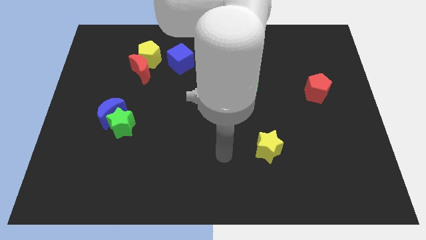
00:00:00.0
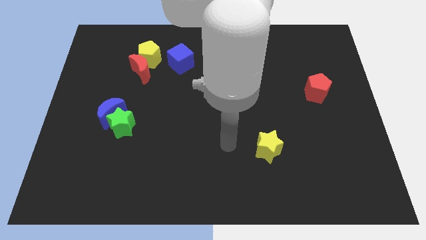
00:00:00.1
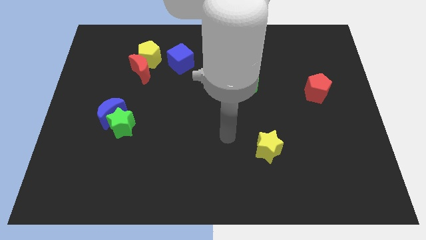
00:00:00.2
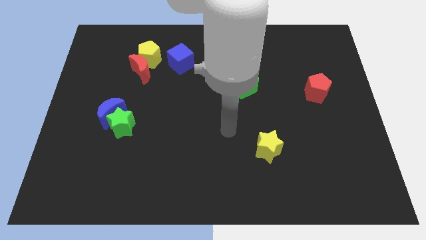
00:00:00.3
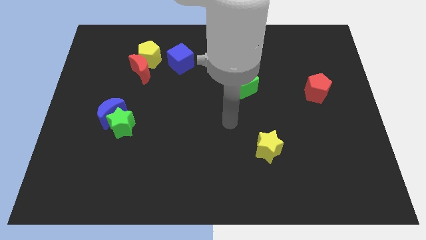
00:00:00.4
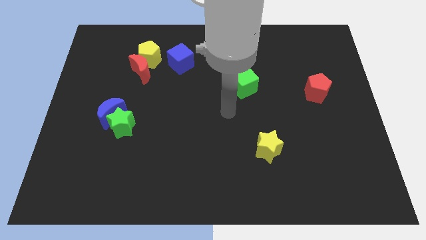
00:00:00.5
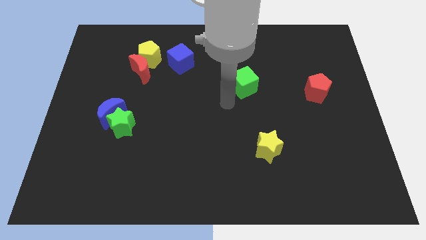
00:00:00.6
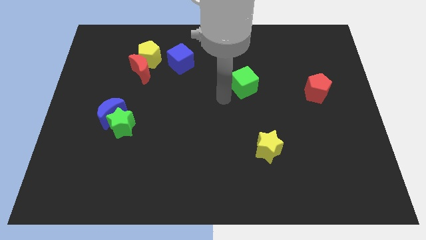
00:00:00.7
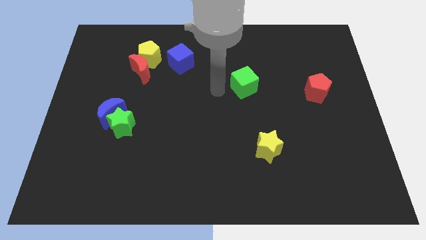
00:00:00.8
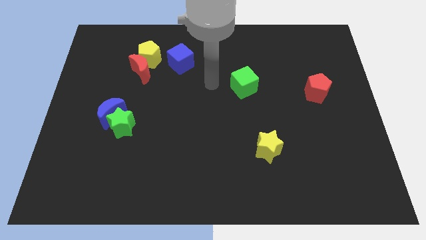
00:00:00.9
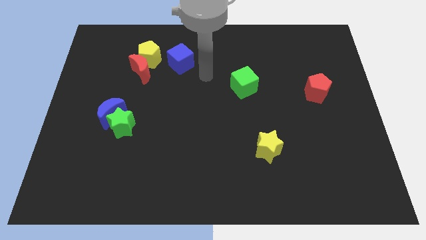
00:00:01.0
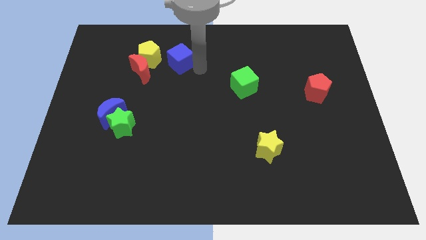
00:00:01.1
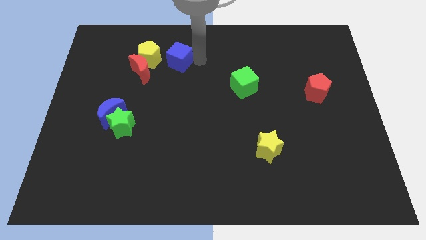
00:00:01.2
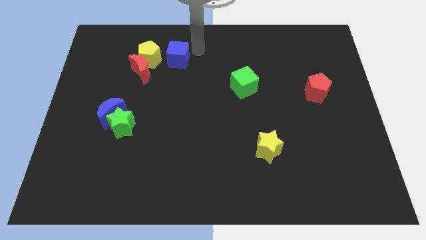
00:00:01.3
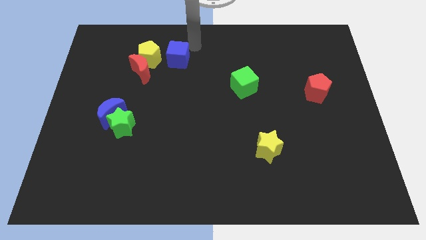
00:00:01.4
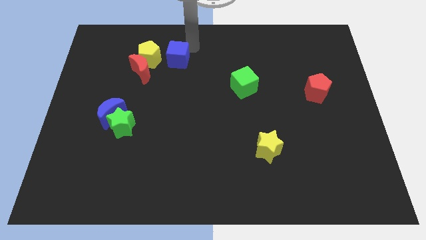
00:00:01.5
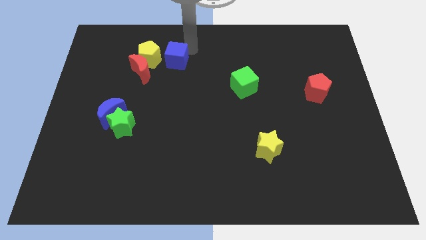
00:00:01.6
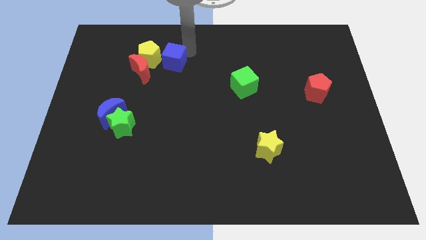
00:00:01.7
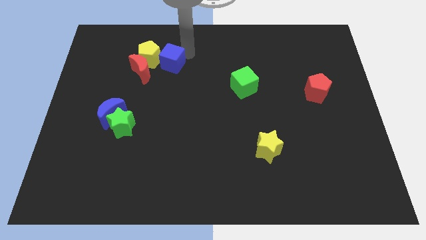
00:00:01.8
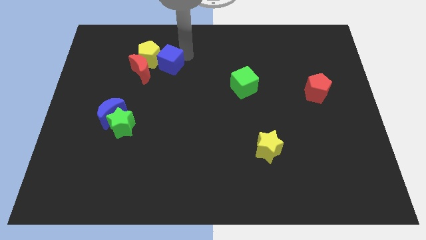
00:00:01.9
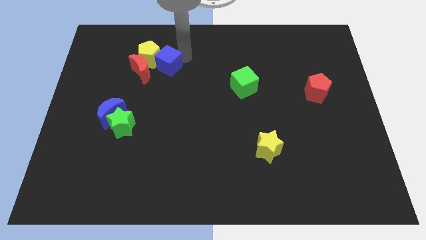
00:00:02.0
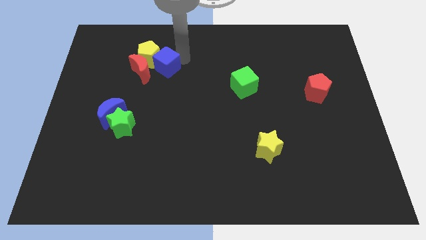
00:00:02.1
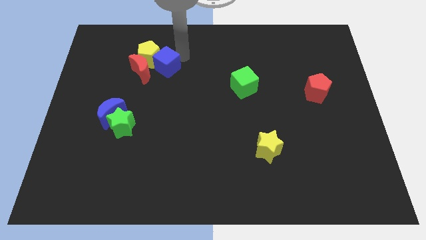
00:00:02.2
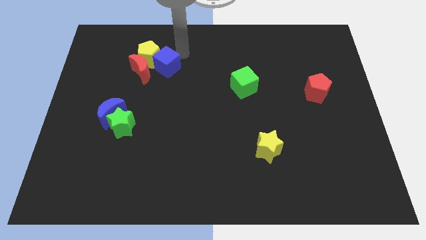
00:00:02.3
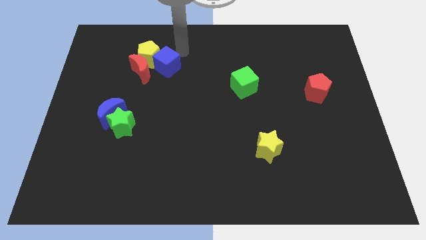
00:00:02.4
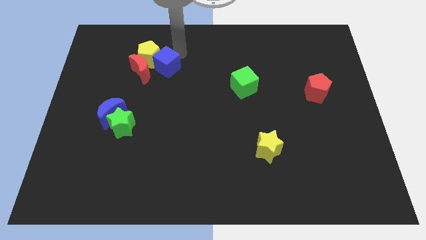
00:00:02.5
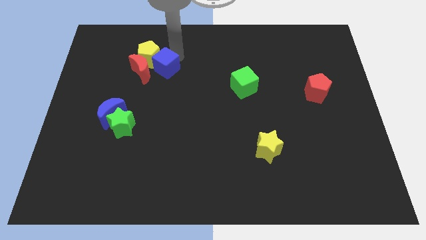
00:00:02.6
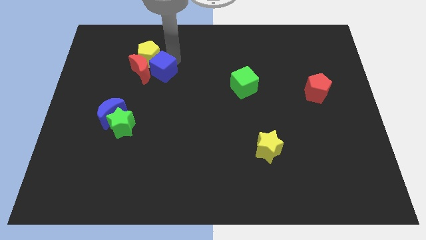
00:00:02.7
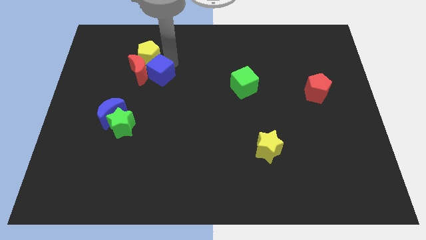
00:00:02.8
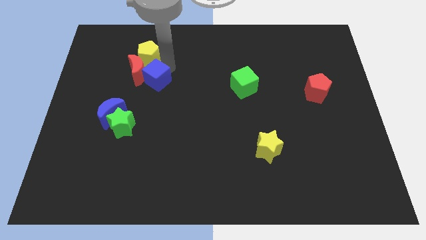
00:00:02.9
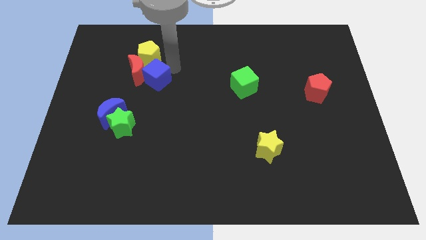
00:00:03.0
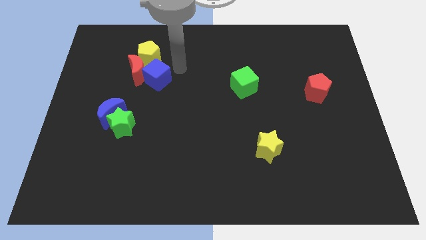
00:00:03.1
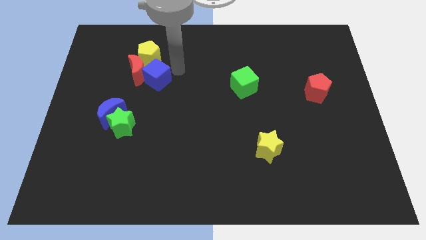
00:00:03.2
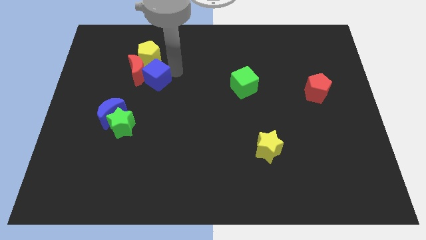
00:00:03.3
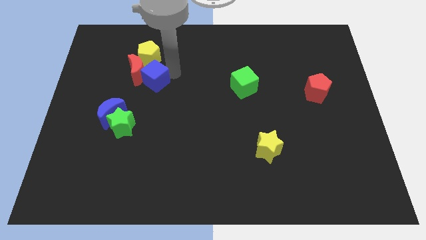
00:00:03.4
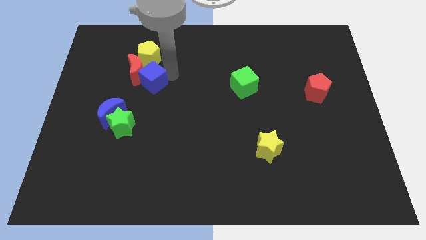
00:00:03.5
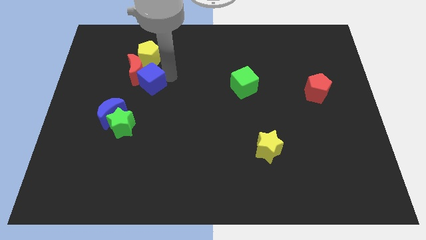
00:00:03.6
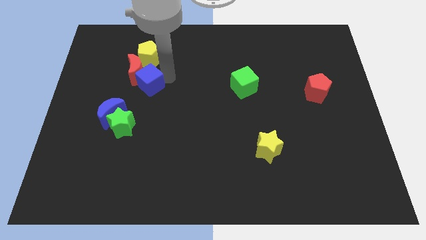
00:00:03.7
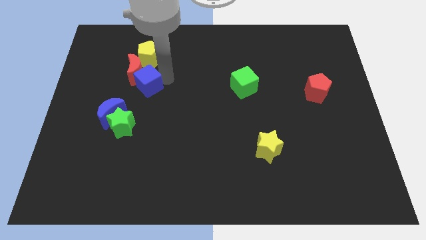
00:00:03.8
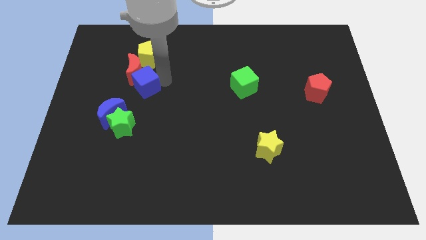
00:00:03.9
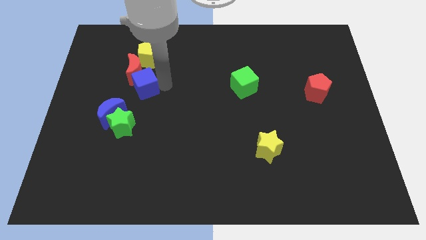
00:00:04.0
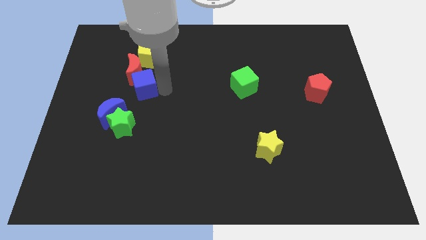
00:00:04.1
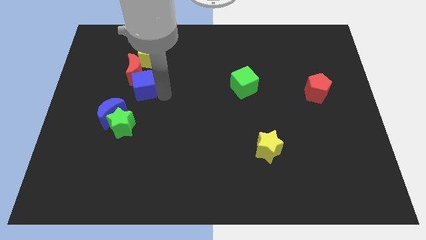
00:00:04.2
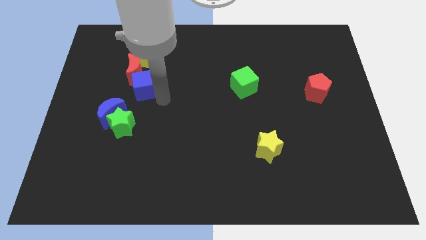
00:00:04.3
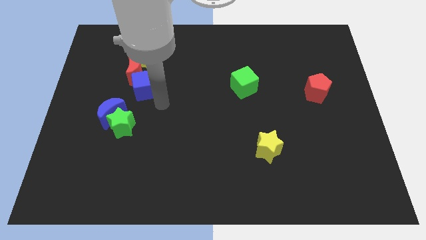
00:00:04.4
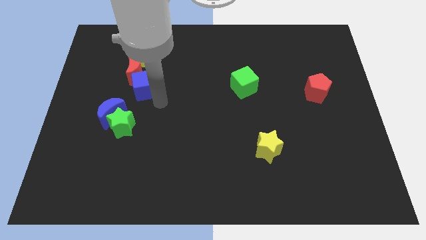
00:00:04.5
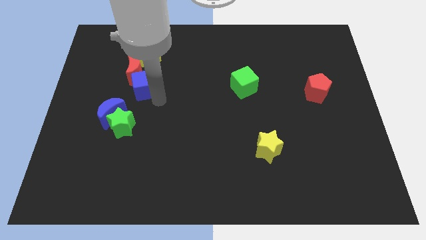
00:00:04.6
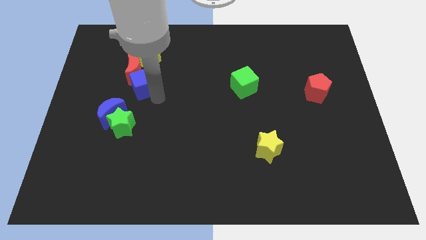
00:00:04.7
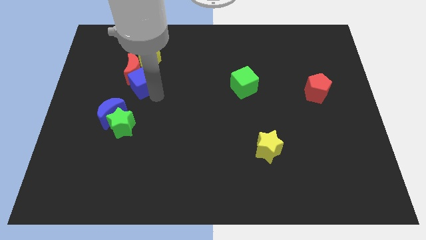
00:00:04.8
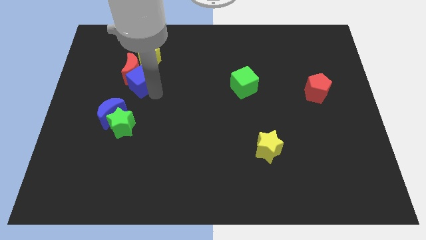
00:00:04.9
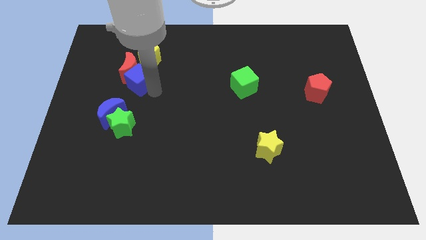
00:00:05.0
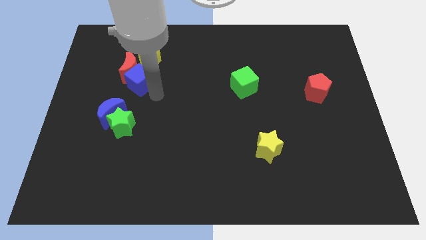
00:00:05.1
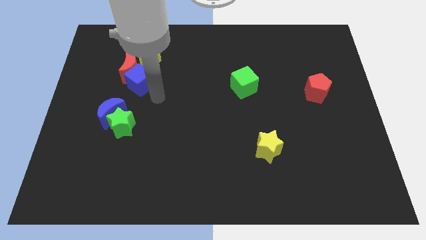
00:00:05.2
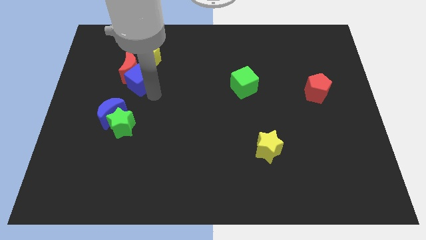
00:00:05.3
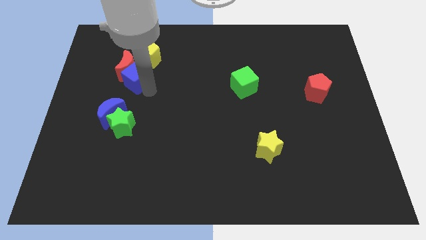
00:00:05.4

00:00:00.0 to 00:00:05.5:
put the blue cube diagonally down and to the left of the yellow pentagon

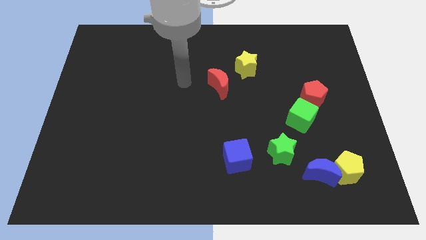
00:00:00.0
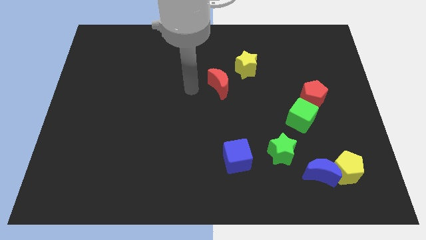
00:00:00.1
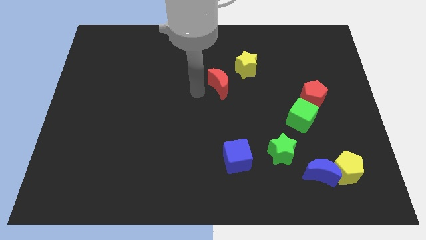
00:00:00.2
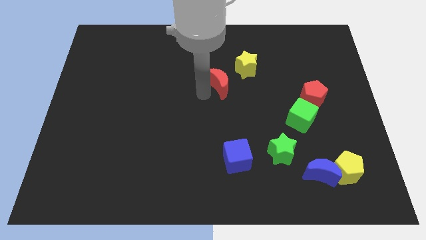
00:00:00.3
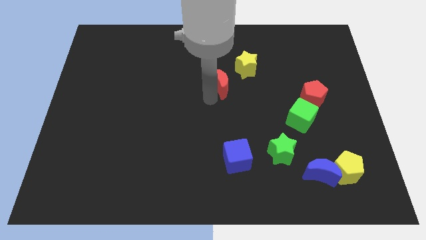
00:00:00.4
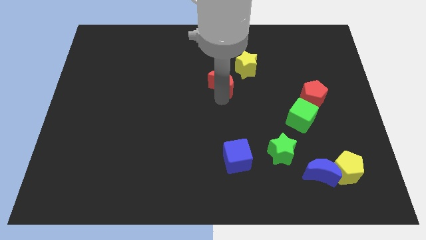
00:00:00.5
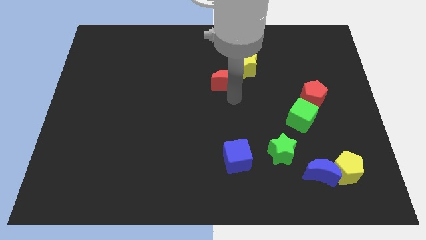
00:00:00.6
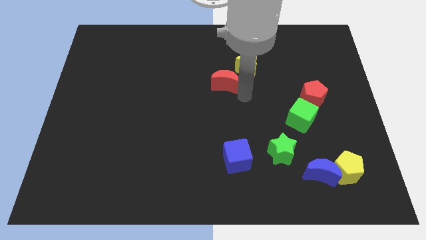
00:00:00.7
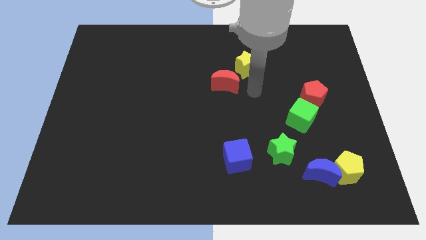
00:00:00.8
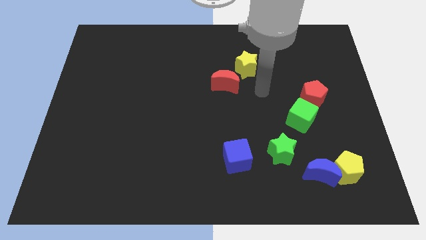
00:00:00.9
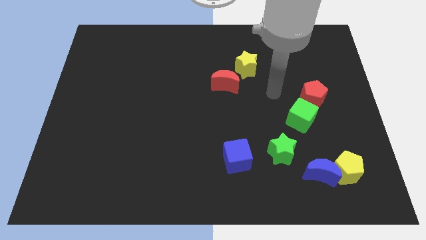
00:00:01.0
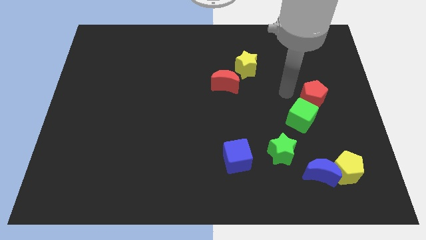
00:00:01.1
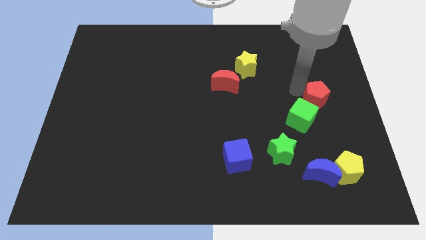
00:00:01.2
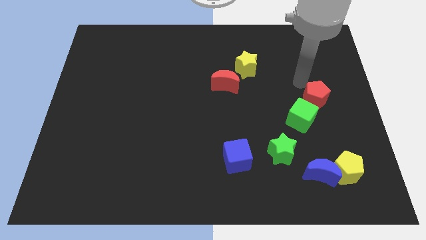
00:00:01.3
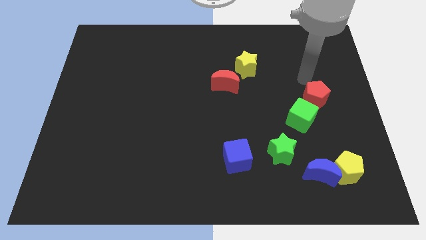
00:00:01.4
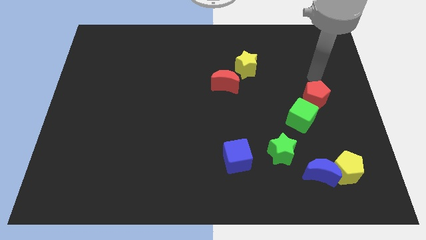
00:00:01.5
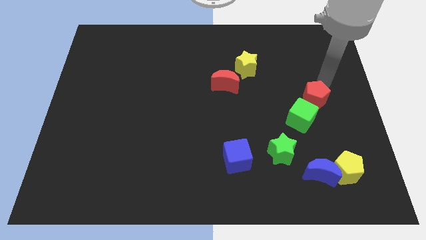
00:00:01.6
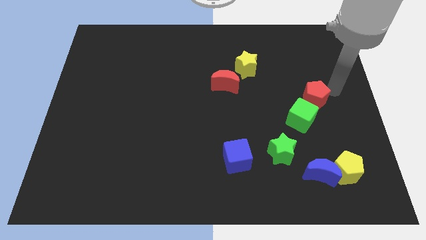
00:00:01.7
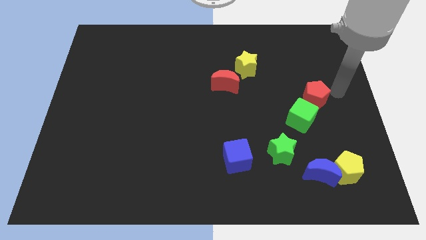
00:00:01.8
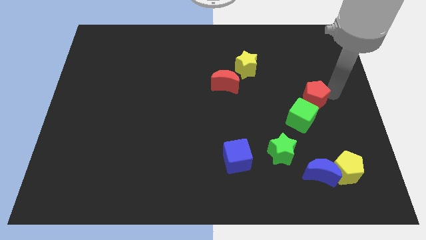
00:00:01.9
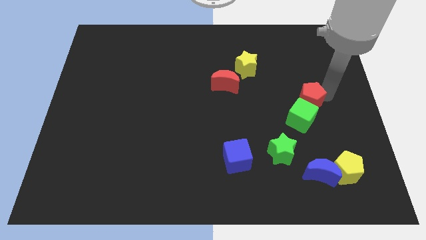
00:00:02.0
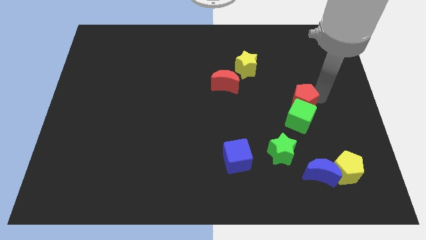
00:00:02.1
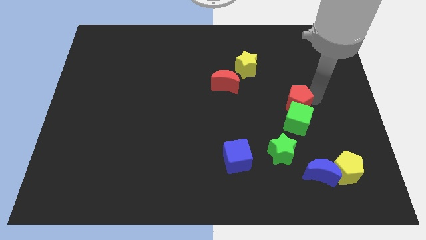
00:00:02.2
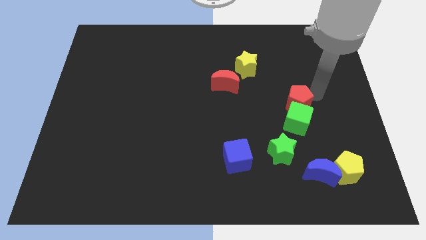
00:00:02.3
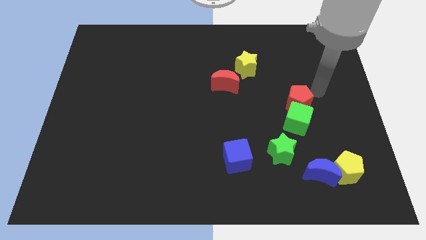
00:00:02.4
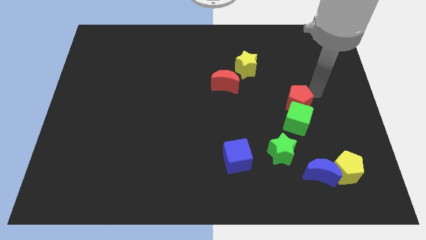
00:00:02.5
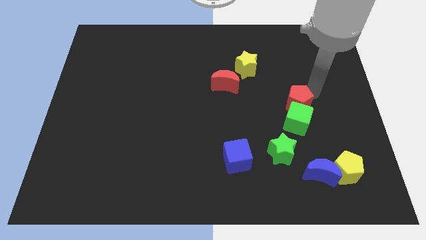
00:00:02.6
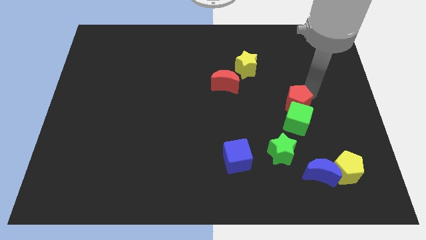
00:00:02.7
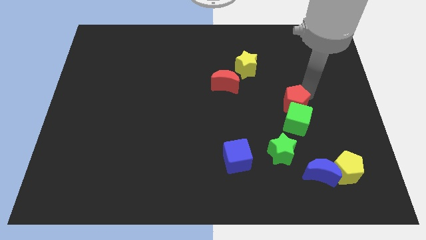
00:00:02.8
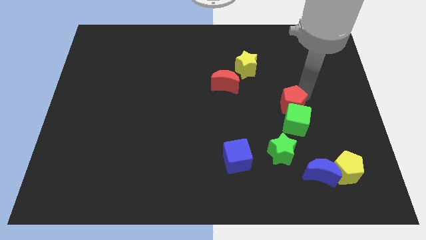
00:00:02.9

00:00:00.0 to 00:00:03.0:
push the red pentagon to the top of the green star
